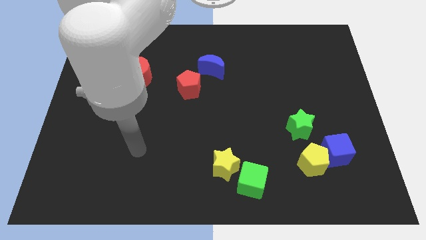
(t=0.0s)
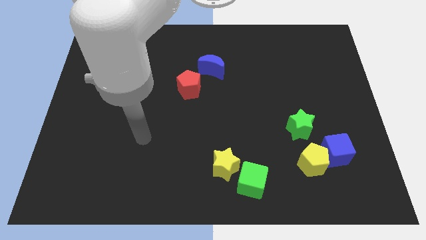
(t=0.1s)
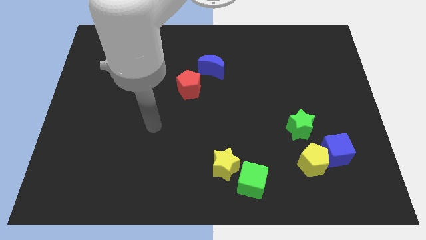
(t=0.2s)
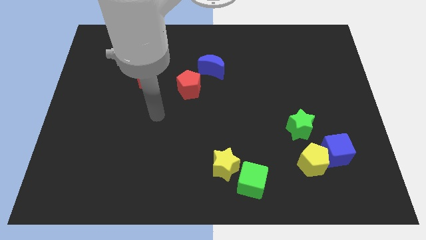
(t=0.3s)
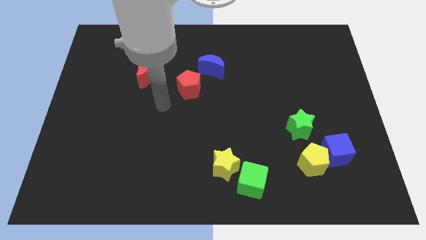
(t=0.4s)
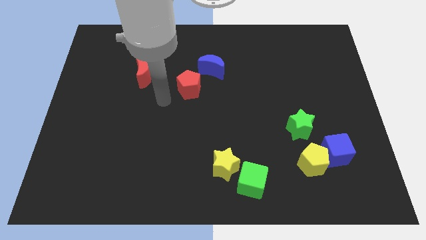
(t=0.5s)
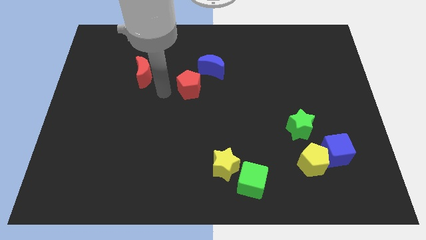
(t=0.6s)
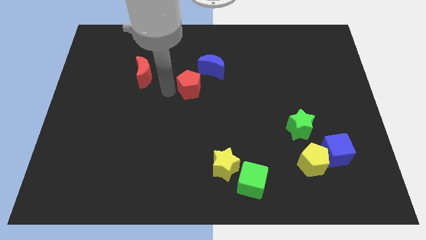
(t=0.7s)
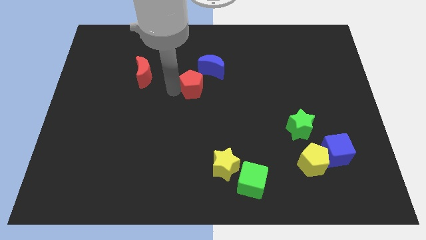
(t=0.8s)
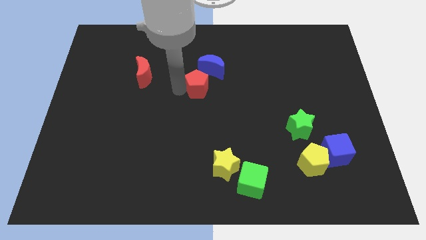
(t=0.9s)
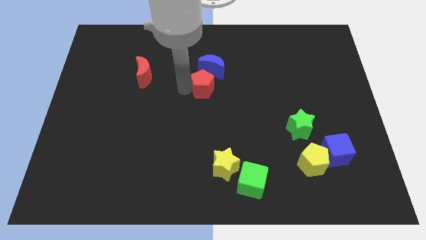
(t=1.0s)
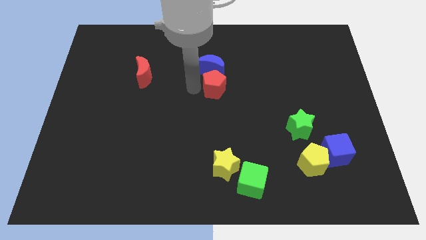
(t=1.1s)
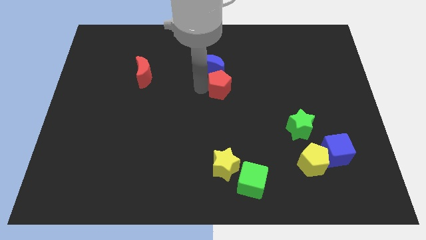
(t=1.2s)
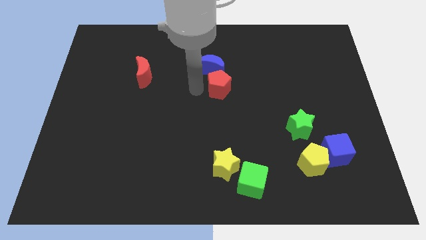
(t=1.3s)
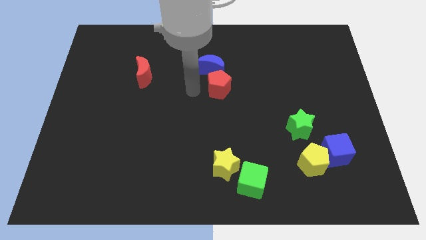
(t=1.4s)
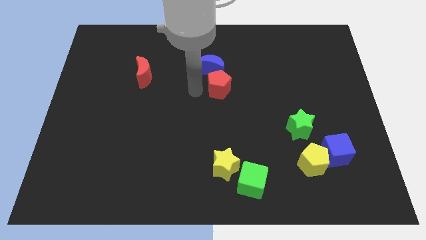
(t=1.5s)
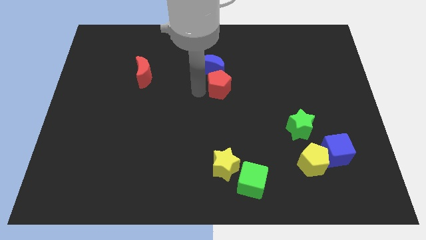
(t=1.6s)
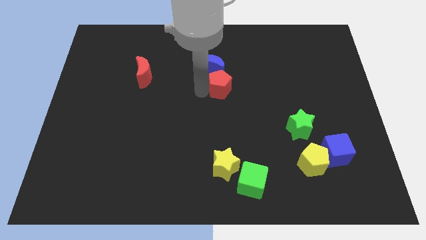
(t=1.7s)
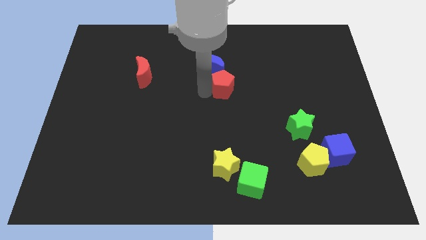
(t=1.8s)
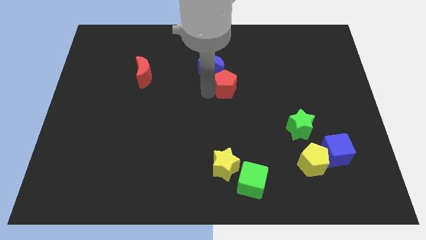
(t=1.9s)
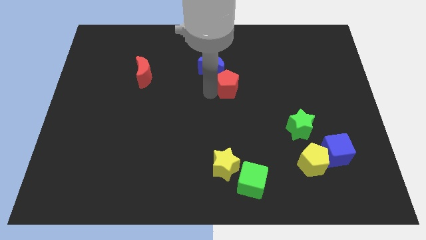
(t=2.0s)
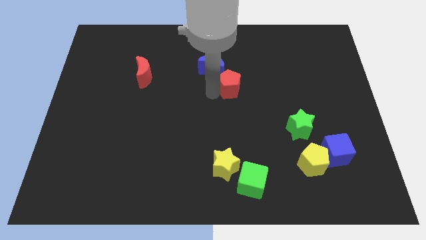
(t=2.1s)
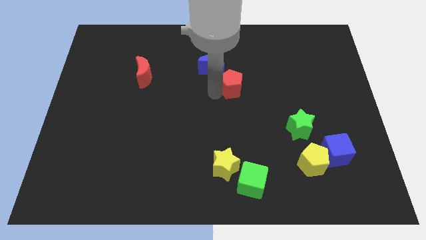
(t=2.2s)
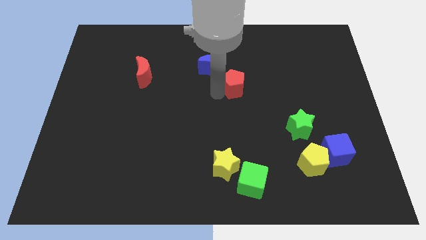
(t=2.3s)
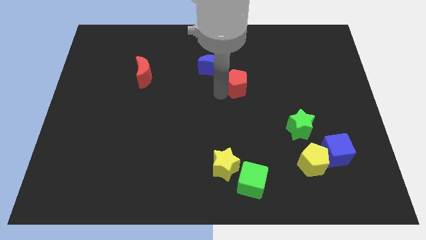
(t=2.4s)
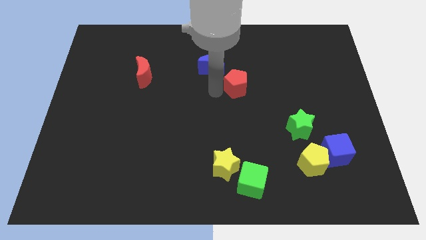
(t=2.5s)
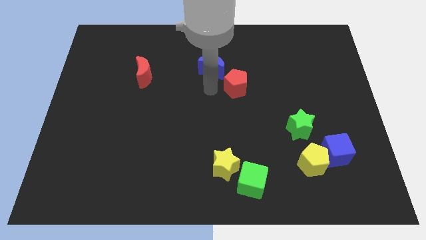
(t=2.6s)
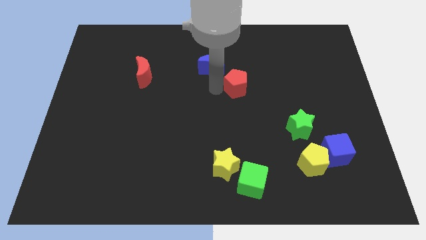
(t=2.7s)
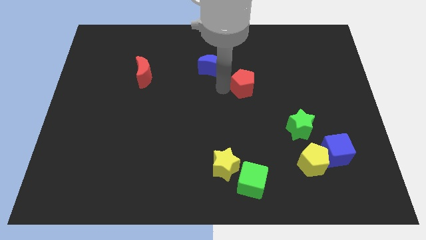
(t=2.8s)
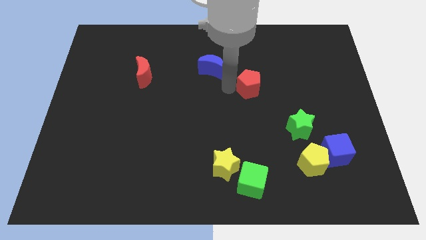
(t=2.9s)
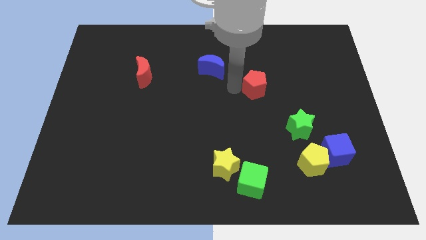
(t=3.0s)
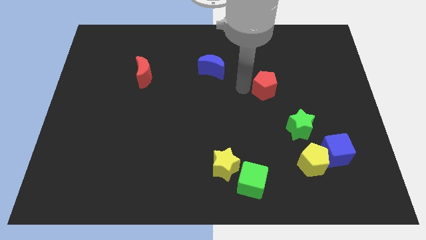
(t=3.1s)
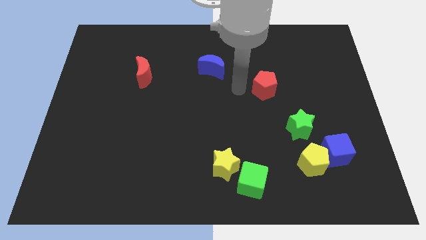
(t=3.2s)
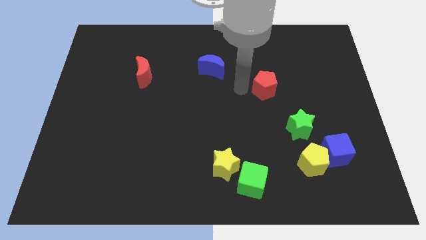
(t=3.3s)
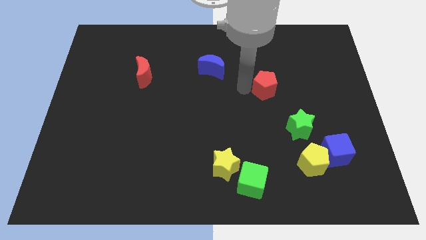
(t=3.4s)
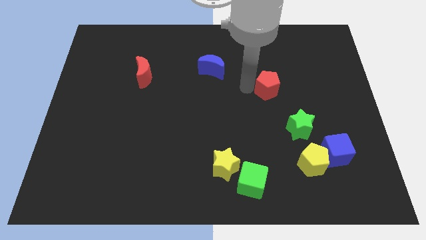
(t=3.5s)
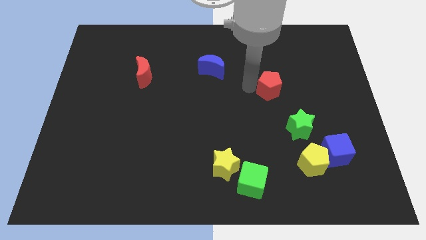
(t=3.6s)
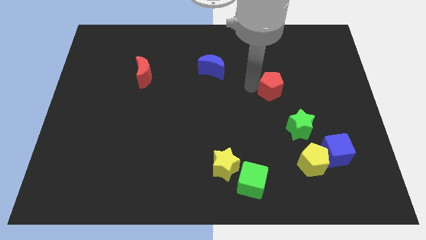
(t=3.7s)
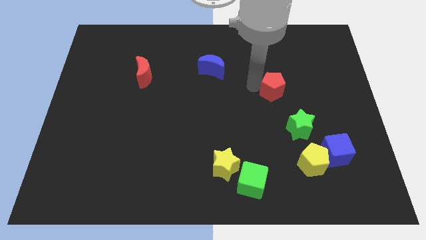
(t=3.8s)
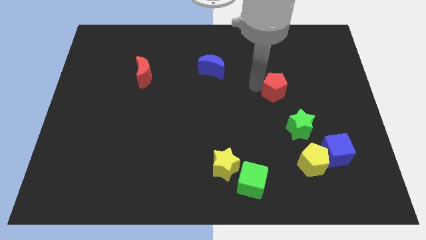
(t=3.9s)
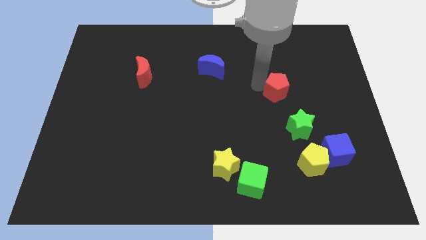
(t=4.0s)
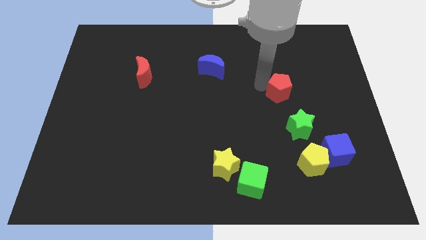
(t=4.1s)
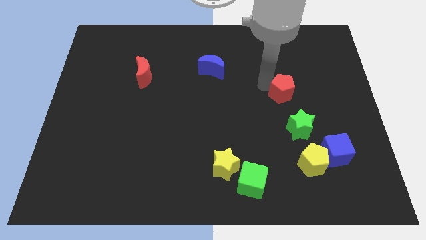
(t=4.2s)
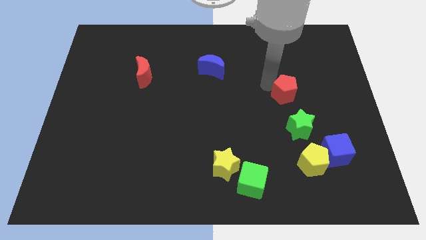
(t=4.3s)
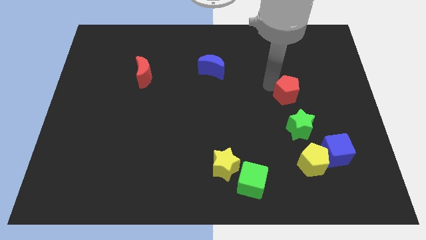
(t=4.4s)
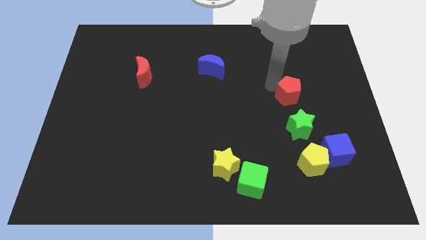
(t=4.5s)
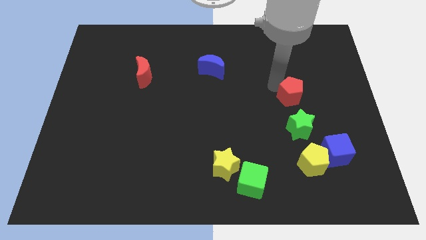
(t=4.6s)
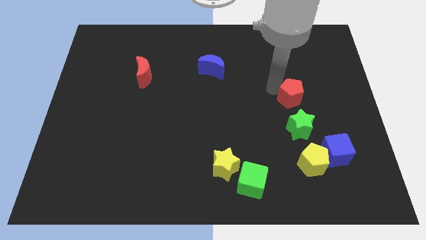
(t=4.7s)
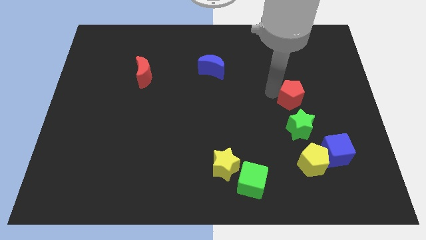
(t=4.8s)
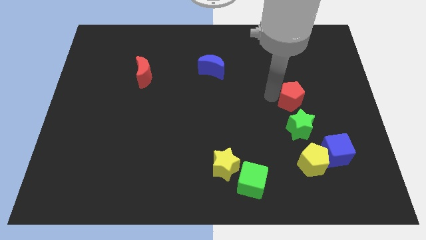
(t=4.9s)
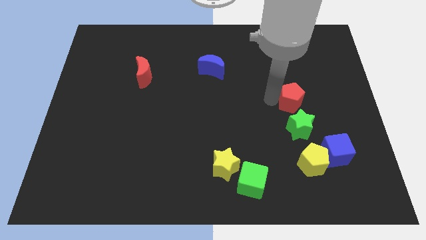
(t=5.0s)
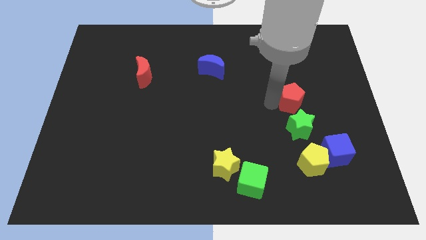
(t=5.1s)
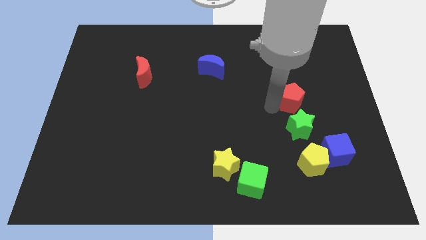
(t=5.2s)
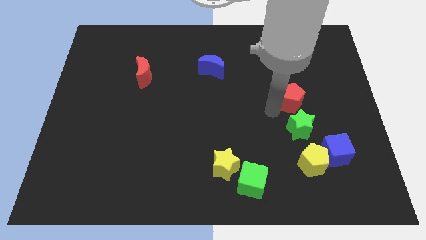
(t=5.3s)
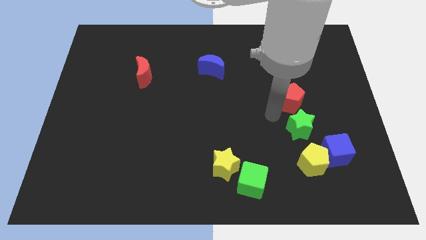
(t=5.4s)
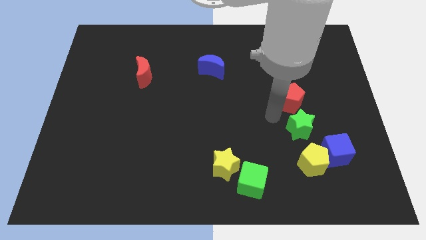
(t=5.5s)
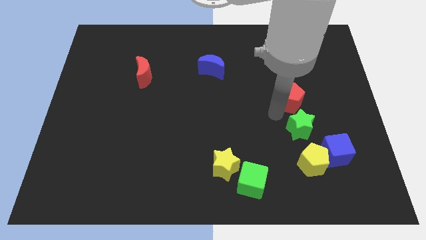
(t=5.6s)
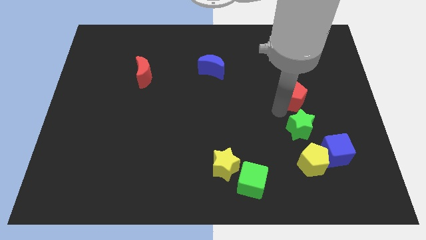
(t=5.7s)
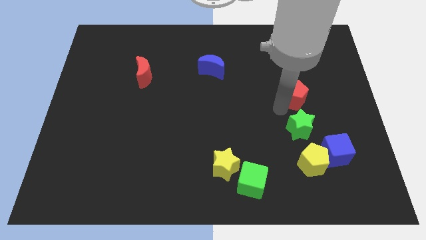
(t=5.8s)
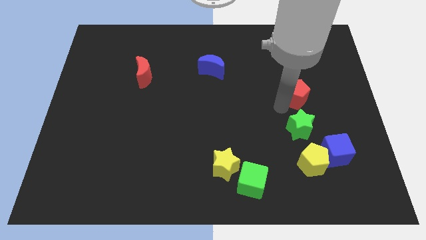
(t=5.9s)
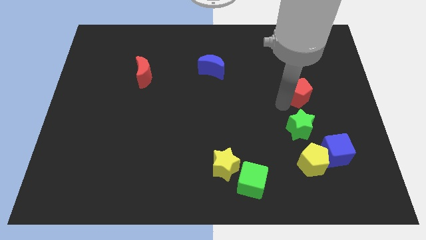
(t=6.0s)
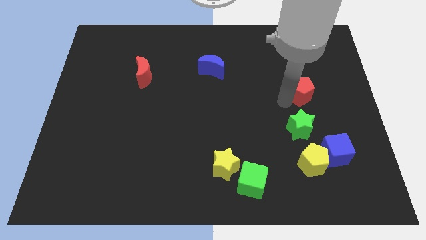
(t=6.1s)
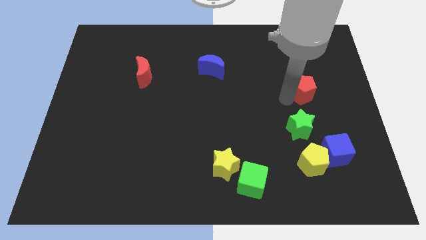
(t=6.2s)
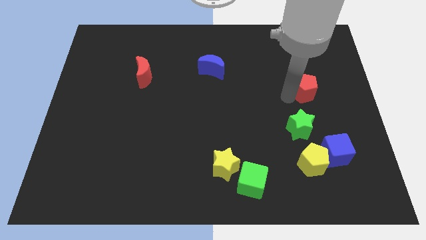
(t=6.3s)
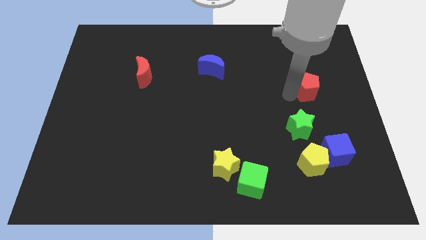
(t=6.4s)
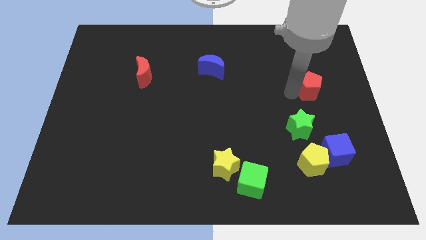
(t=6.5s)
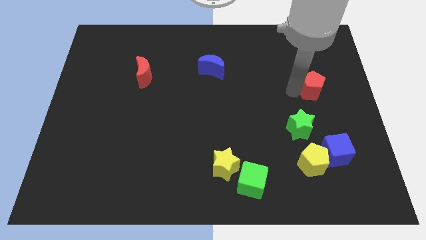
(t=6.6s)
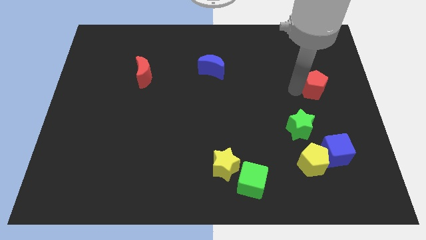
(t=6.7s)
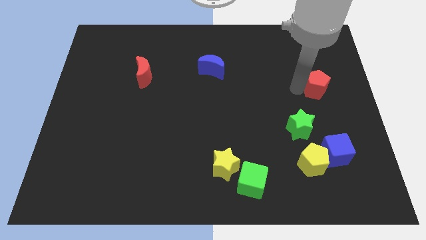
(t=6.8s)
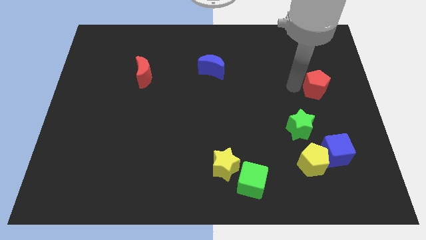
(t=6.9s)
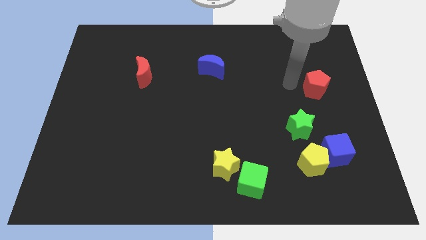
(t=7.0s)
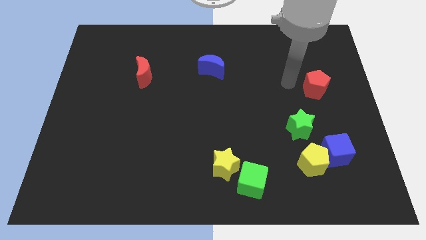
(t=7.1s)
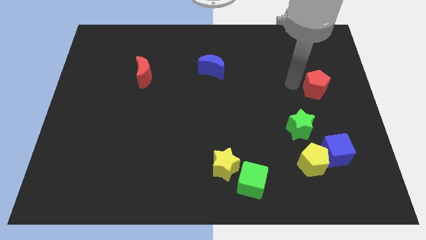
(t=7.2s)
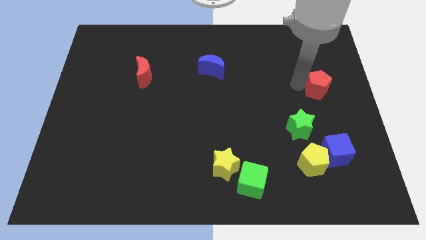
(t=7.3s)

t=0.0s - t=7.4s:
put the red pentagon to the right side
